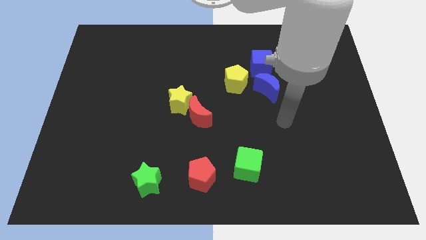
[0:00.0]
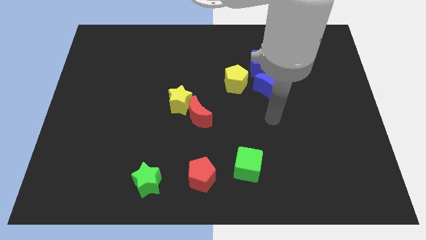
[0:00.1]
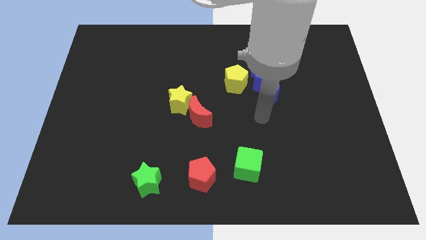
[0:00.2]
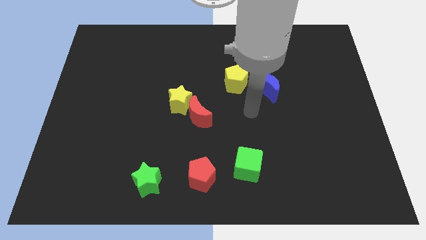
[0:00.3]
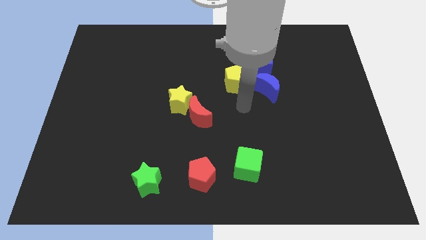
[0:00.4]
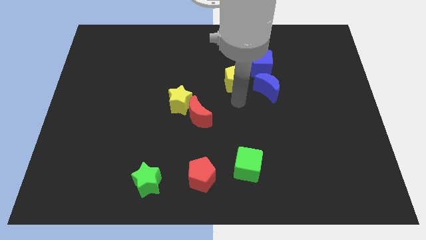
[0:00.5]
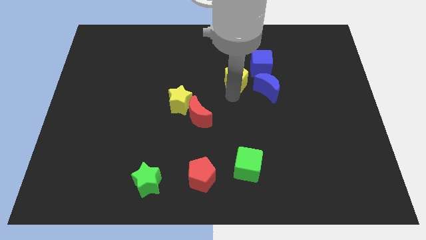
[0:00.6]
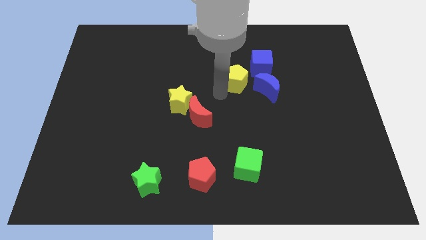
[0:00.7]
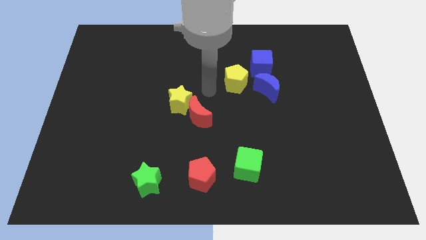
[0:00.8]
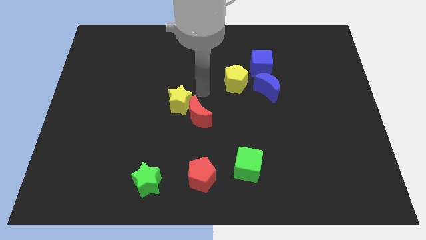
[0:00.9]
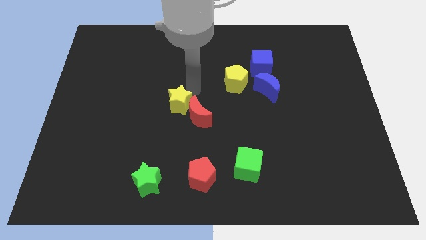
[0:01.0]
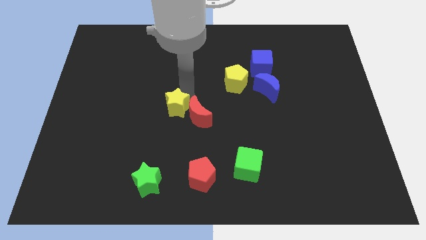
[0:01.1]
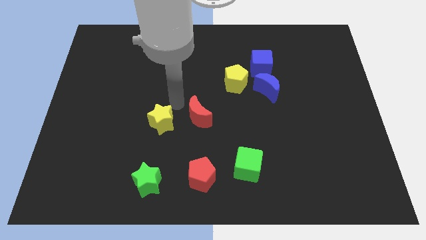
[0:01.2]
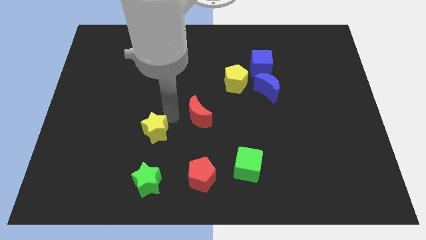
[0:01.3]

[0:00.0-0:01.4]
pull the red moon apart from the yellow star

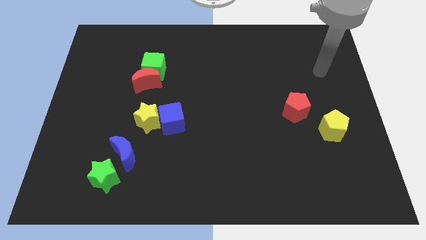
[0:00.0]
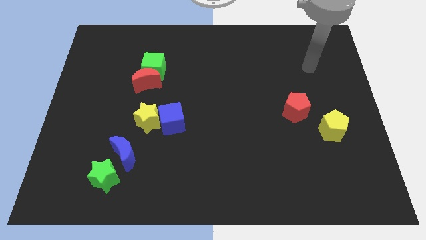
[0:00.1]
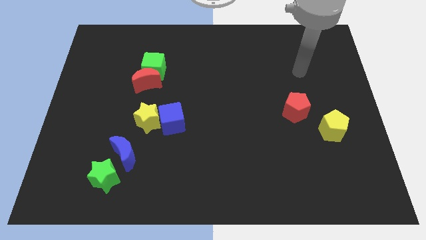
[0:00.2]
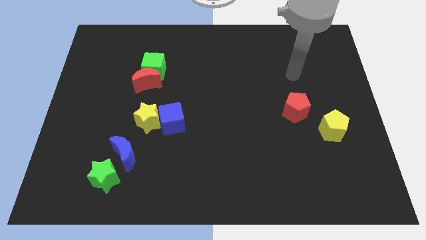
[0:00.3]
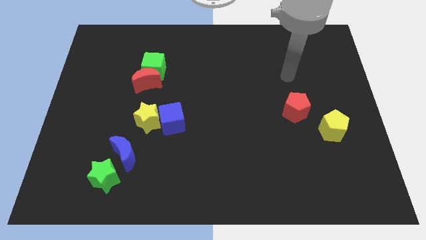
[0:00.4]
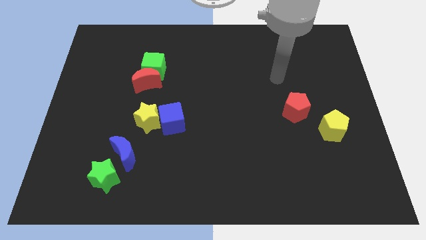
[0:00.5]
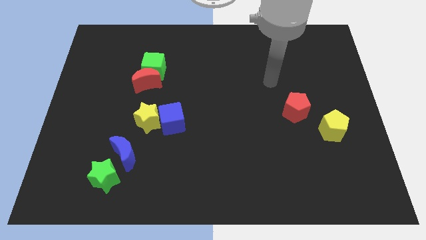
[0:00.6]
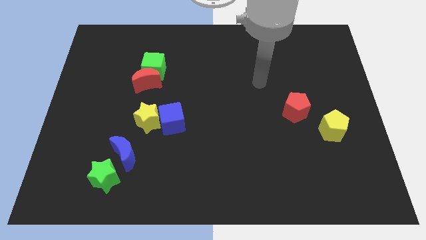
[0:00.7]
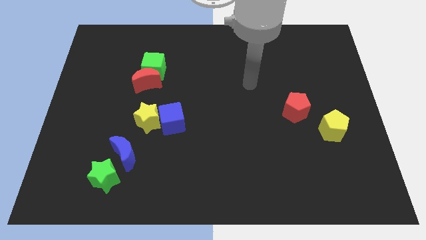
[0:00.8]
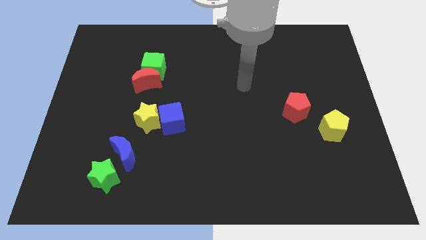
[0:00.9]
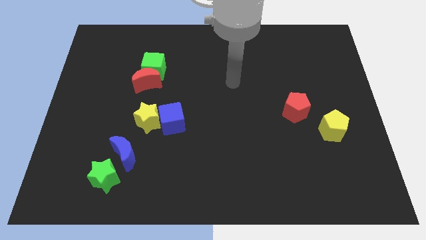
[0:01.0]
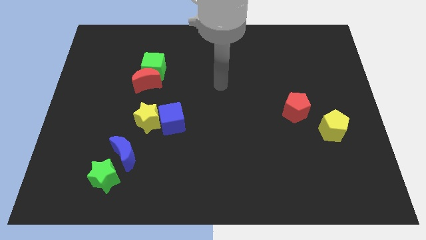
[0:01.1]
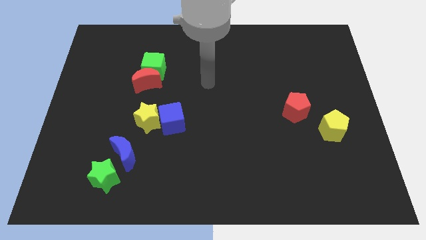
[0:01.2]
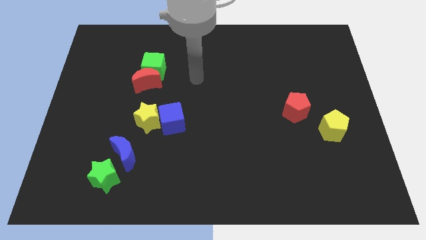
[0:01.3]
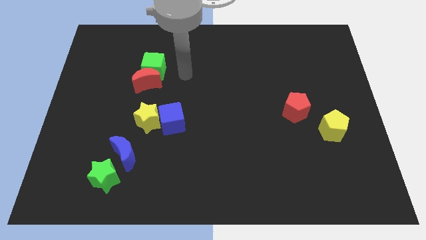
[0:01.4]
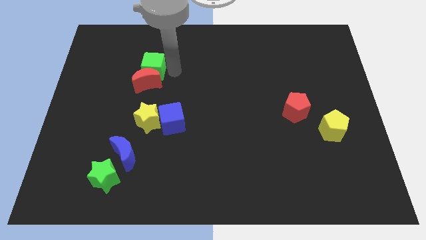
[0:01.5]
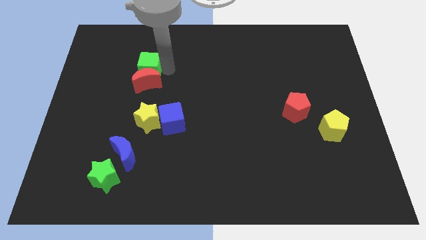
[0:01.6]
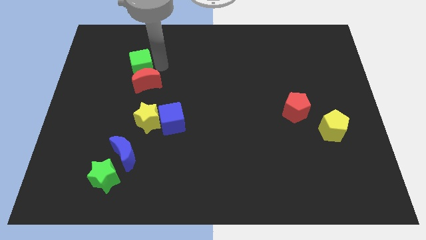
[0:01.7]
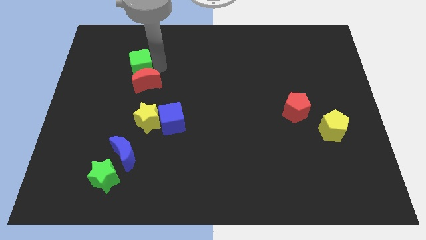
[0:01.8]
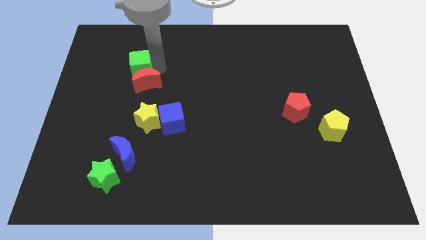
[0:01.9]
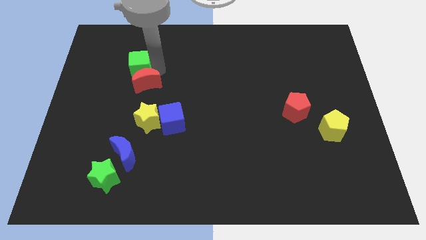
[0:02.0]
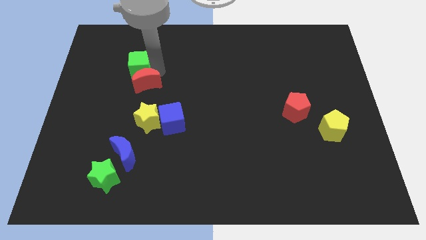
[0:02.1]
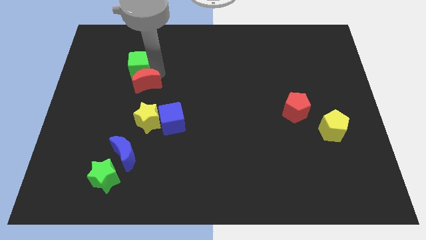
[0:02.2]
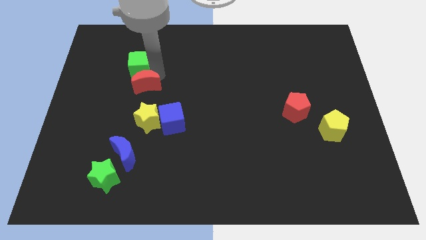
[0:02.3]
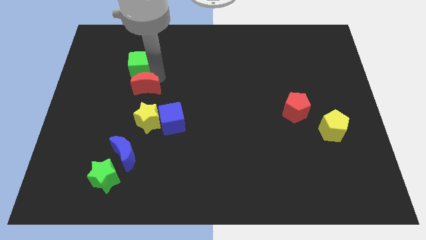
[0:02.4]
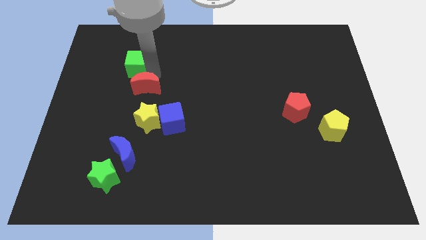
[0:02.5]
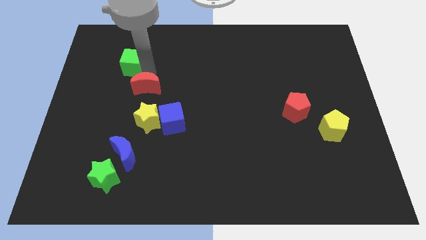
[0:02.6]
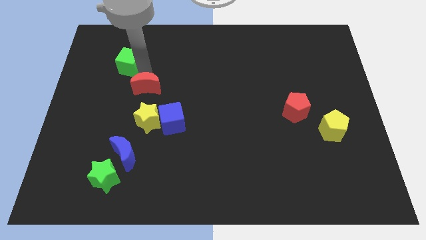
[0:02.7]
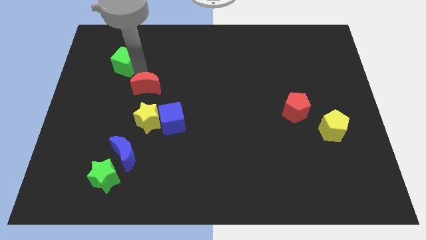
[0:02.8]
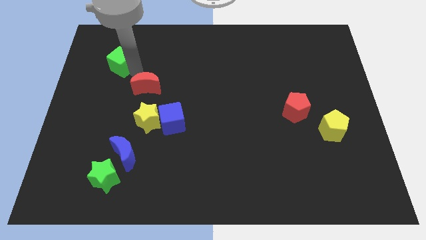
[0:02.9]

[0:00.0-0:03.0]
separate the red moon from the green cube

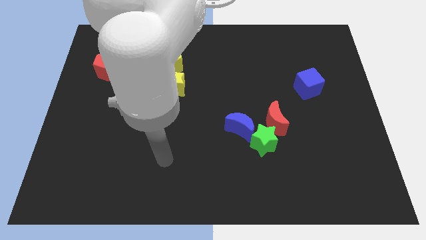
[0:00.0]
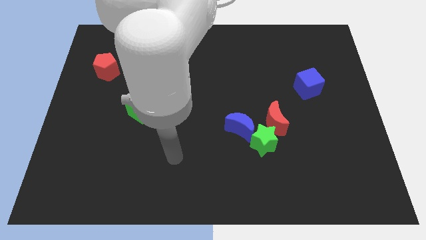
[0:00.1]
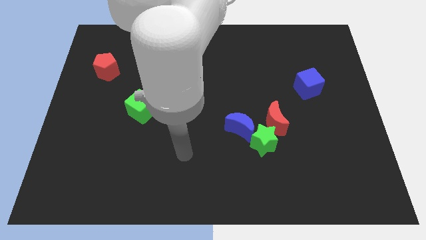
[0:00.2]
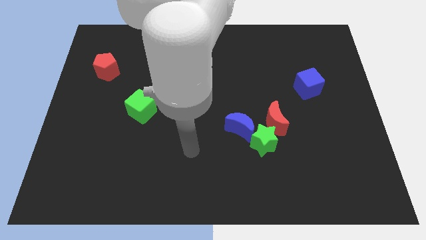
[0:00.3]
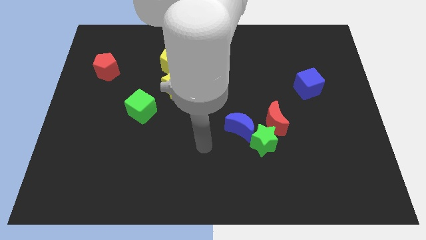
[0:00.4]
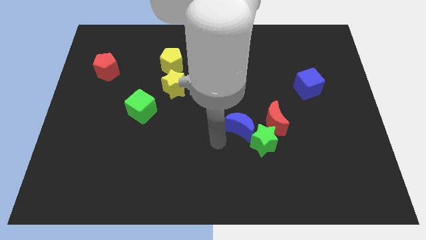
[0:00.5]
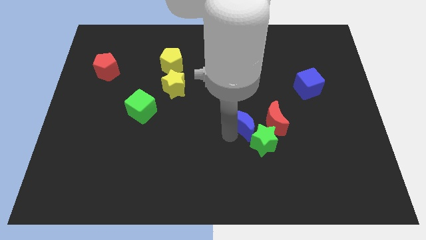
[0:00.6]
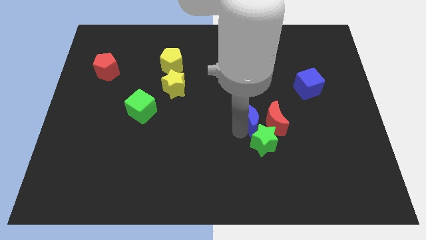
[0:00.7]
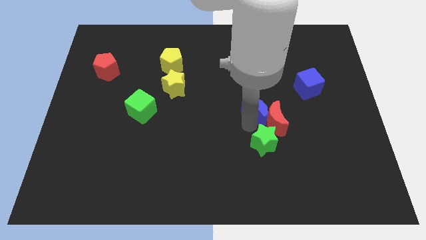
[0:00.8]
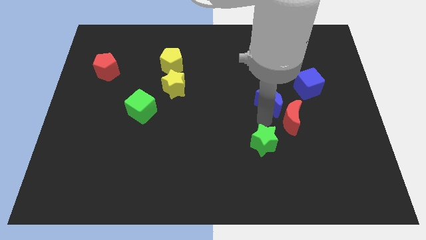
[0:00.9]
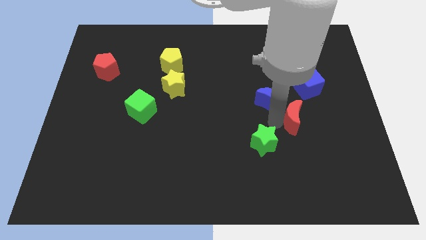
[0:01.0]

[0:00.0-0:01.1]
separate the green star from the red moon and blue moon

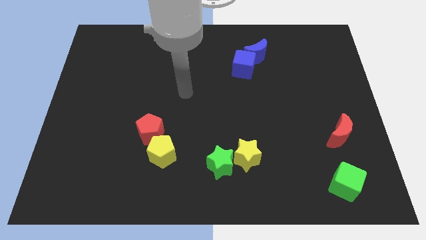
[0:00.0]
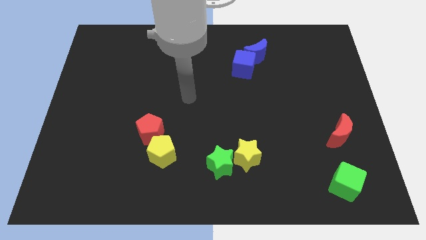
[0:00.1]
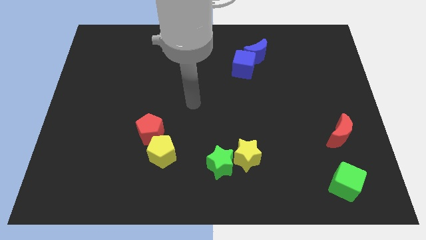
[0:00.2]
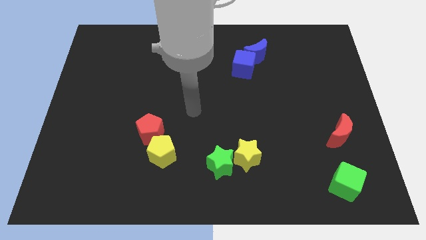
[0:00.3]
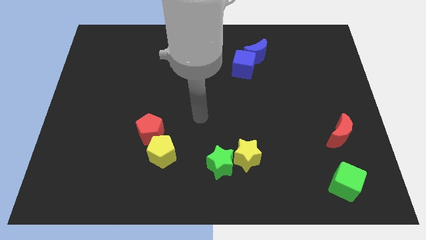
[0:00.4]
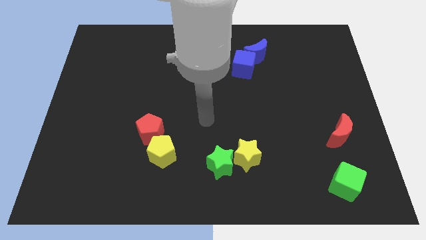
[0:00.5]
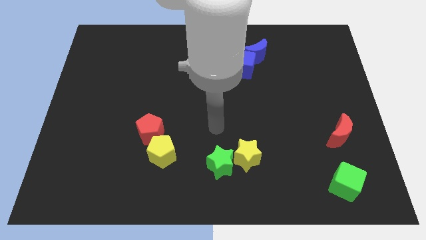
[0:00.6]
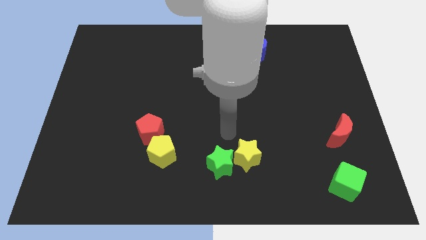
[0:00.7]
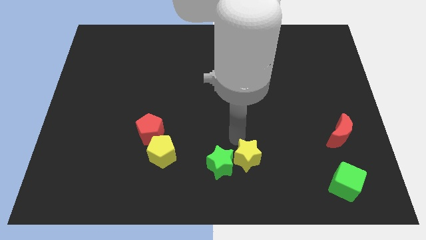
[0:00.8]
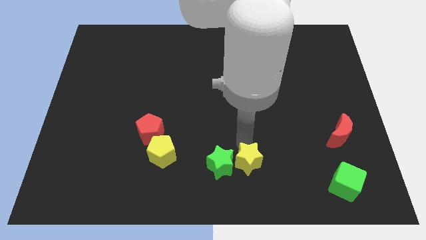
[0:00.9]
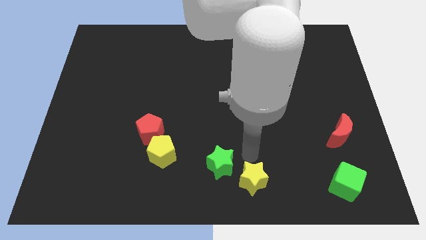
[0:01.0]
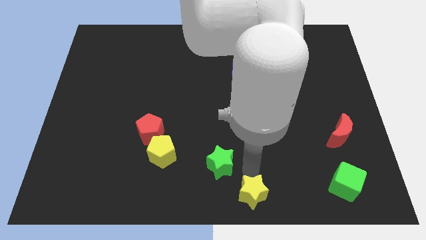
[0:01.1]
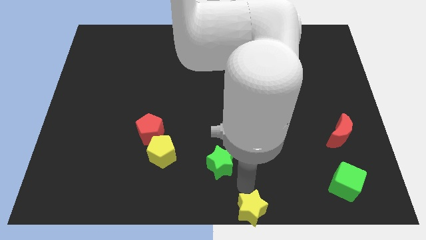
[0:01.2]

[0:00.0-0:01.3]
separate the green star from the yellow star

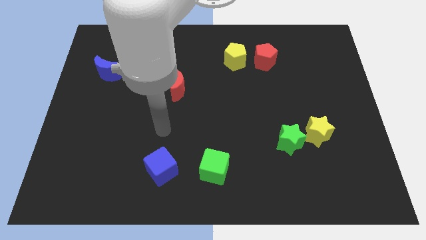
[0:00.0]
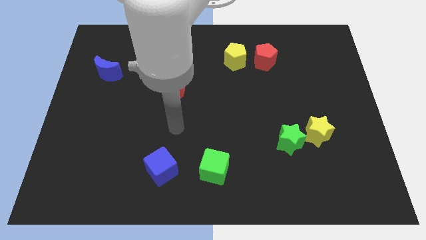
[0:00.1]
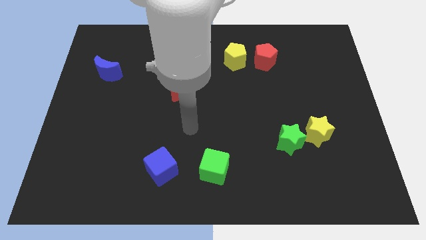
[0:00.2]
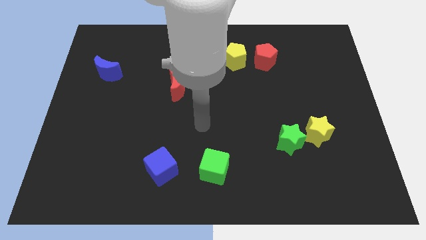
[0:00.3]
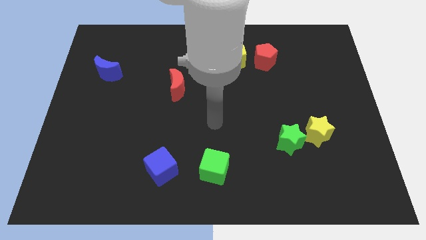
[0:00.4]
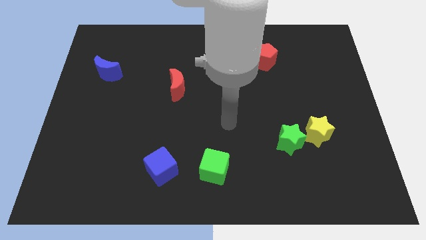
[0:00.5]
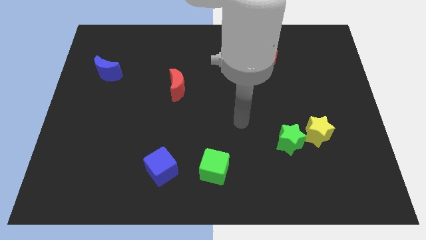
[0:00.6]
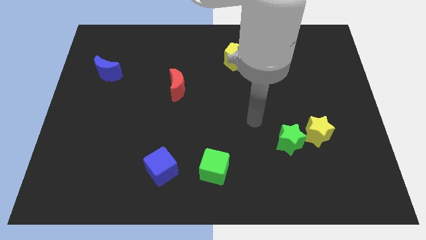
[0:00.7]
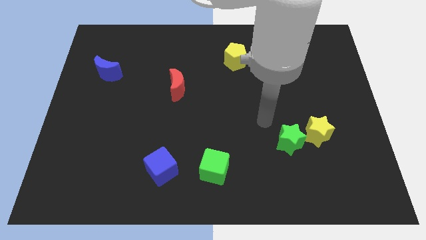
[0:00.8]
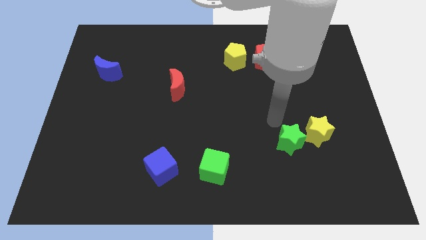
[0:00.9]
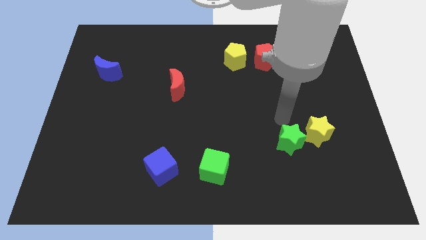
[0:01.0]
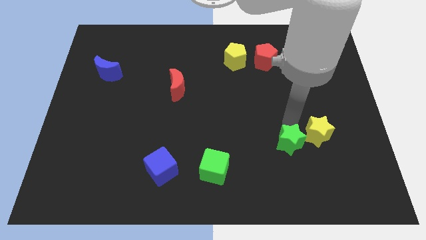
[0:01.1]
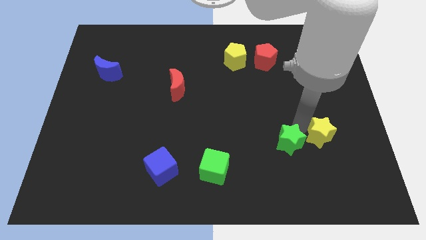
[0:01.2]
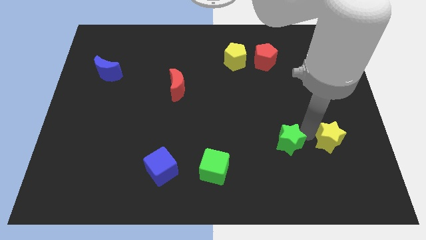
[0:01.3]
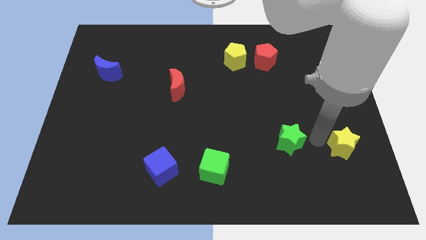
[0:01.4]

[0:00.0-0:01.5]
move the green star away from the yellow star

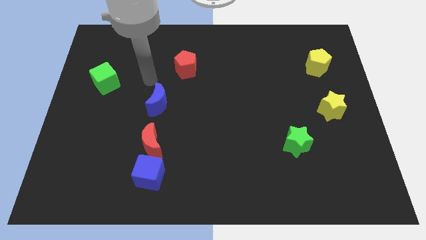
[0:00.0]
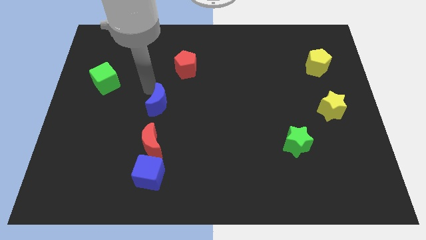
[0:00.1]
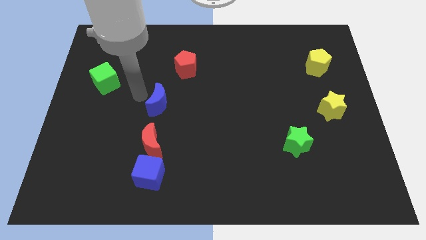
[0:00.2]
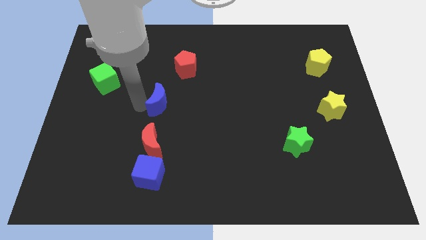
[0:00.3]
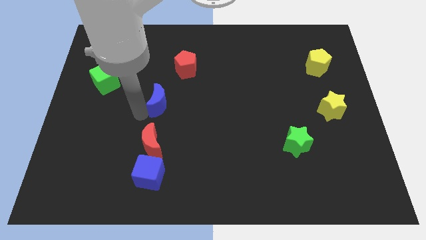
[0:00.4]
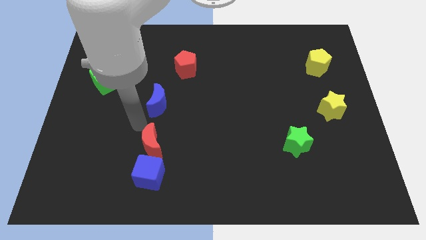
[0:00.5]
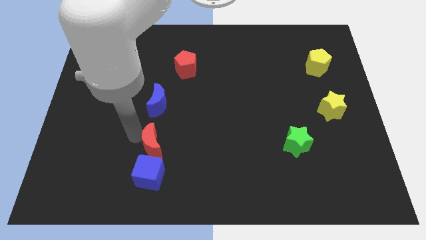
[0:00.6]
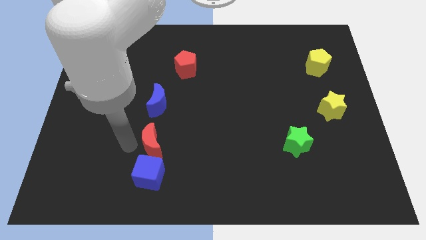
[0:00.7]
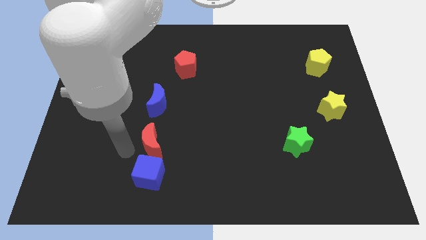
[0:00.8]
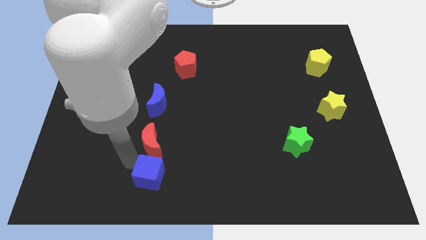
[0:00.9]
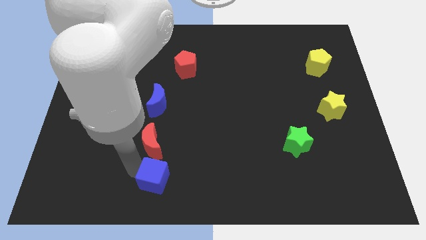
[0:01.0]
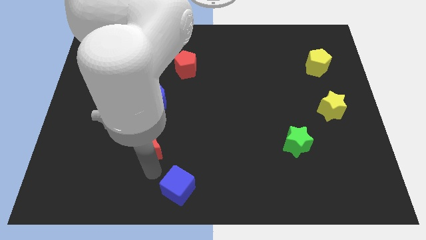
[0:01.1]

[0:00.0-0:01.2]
separate the red moon from the blue cube
